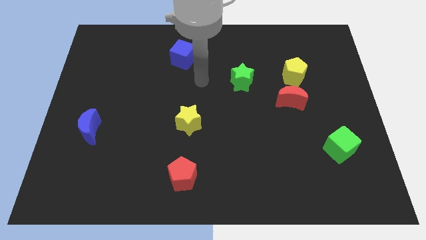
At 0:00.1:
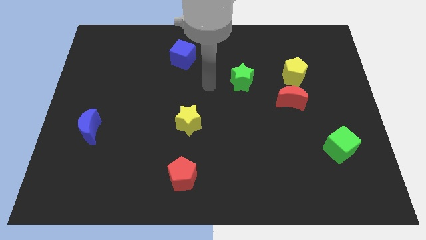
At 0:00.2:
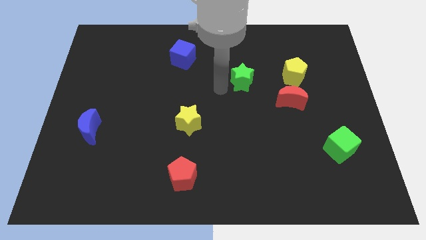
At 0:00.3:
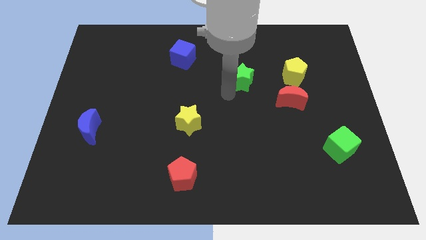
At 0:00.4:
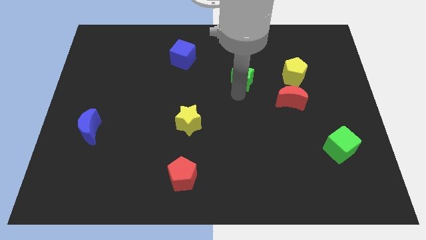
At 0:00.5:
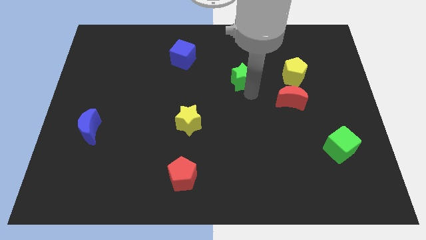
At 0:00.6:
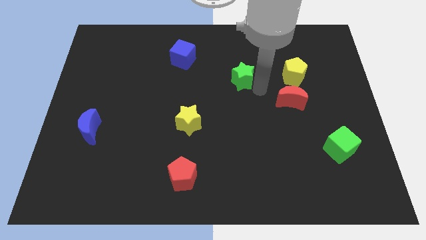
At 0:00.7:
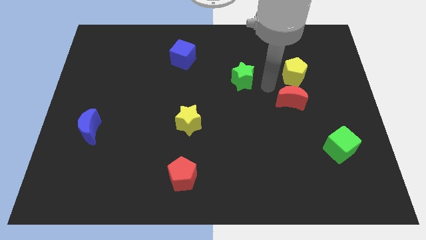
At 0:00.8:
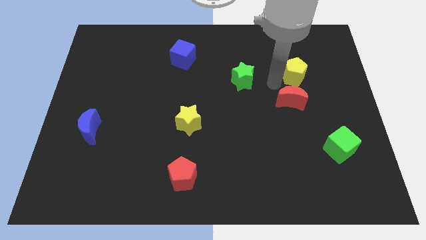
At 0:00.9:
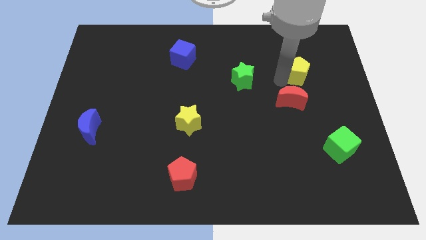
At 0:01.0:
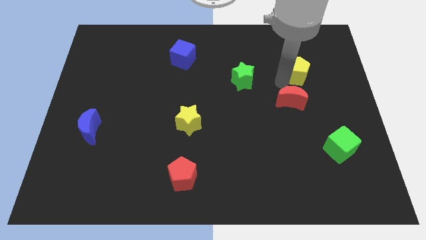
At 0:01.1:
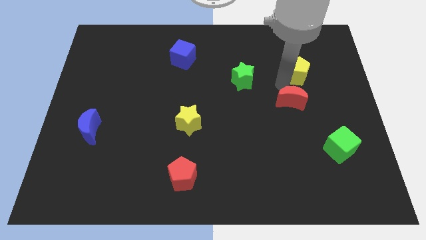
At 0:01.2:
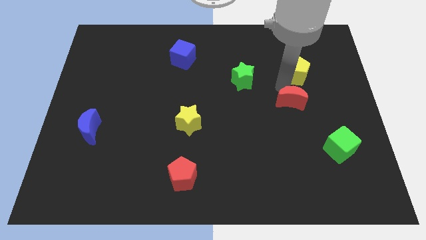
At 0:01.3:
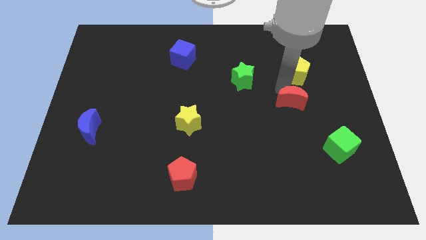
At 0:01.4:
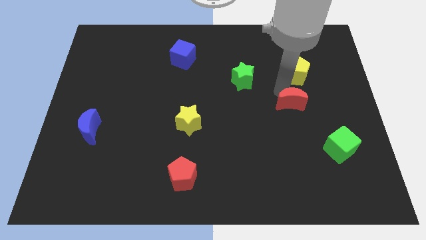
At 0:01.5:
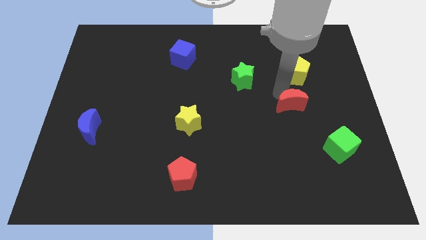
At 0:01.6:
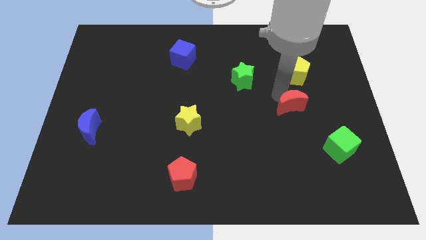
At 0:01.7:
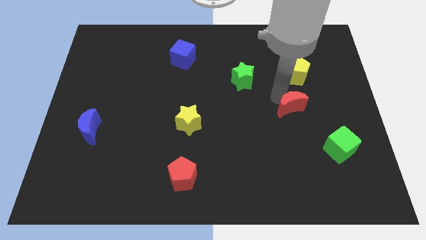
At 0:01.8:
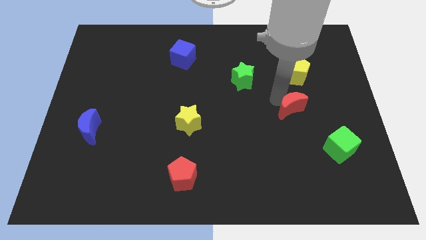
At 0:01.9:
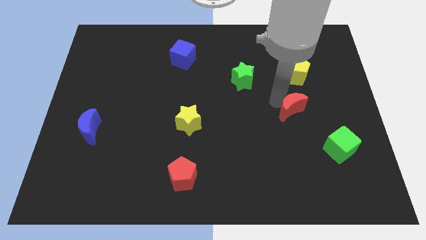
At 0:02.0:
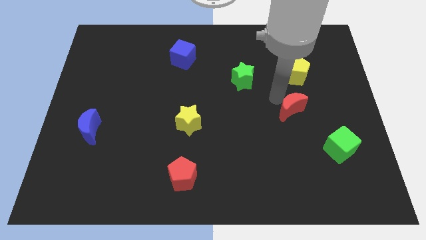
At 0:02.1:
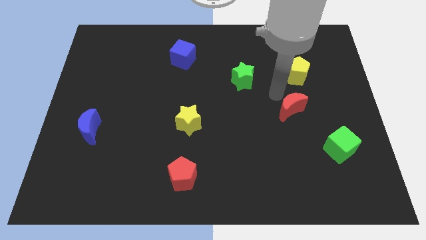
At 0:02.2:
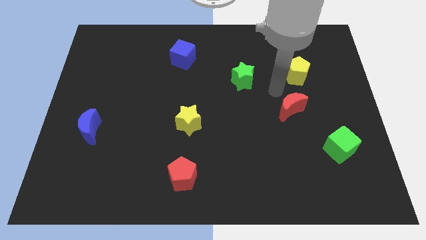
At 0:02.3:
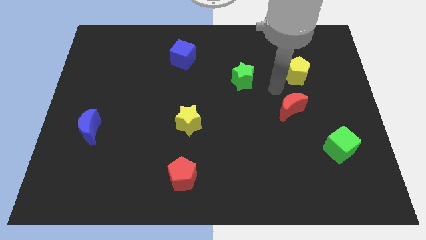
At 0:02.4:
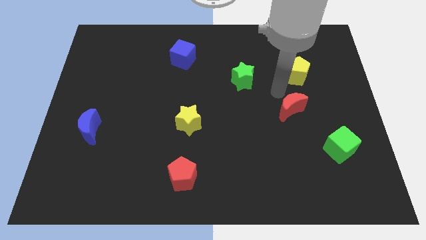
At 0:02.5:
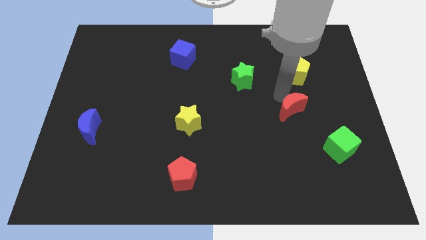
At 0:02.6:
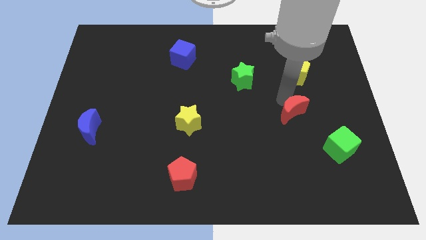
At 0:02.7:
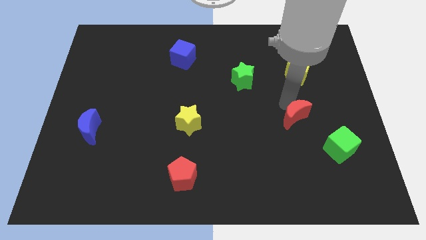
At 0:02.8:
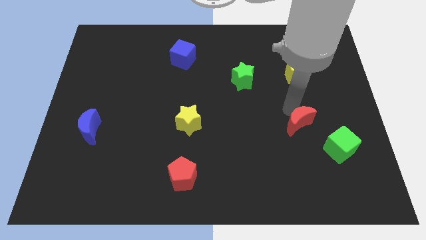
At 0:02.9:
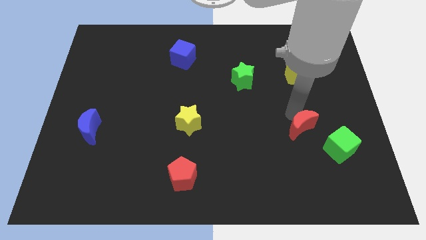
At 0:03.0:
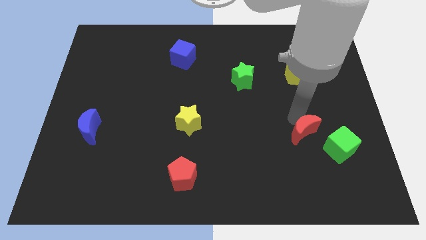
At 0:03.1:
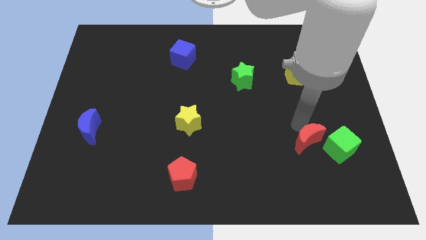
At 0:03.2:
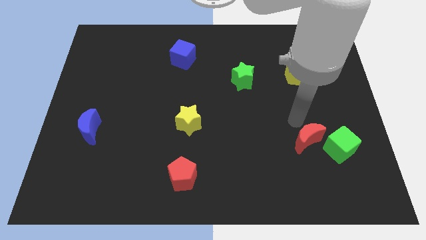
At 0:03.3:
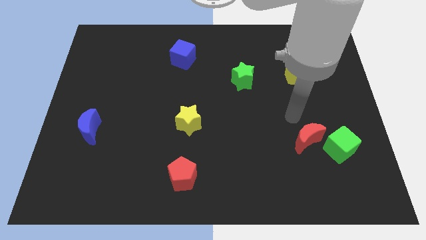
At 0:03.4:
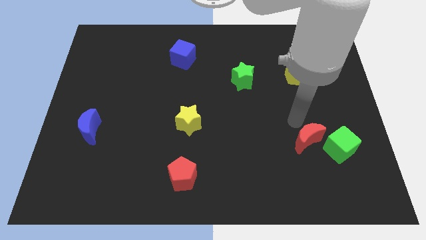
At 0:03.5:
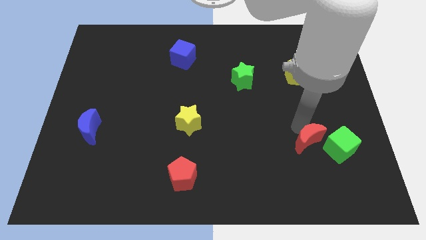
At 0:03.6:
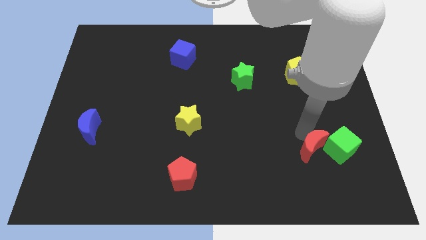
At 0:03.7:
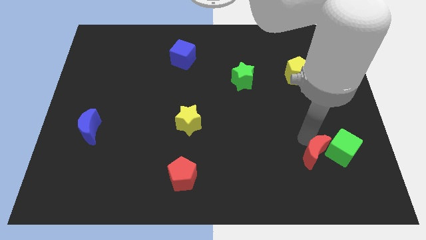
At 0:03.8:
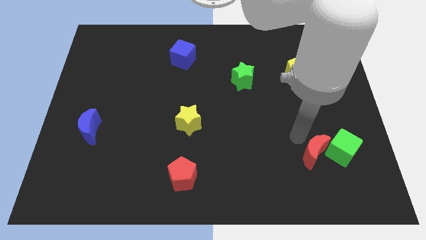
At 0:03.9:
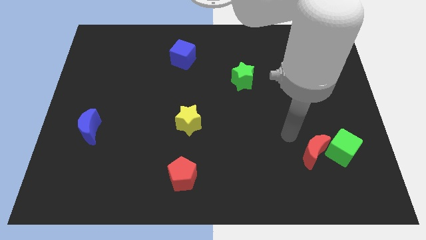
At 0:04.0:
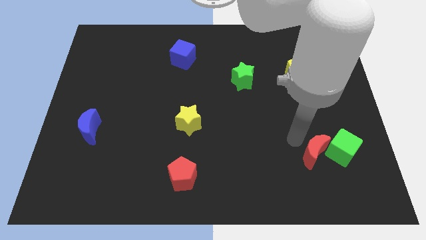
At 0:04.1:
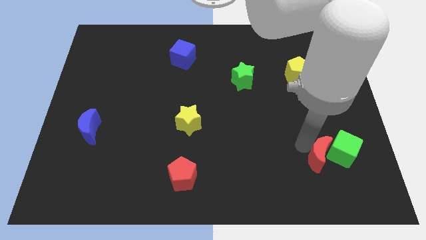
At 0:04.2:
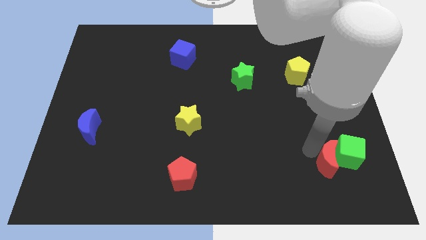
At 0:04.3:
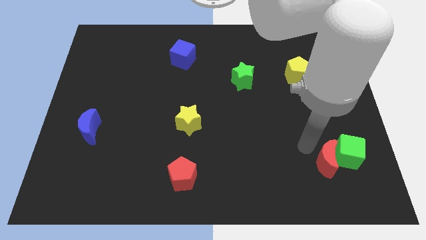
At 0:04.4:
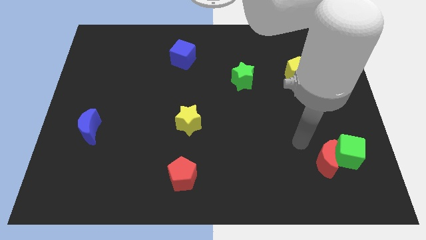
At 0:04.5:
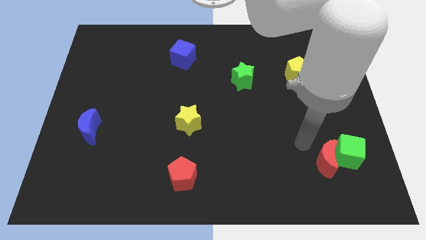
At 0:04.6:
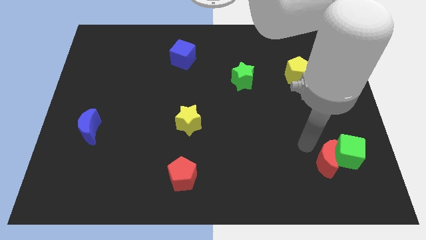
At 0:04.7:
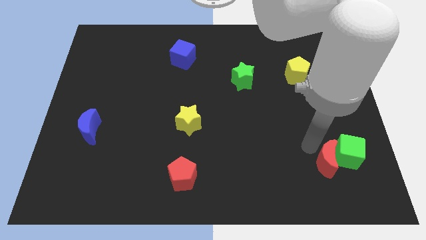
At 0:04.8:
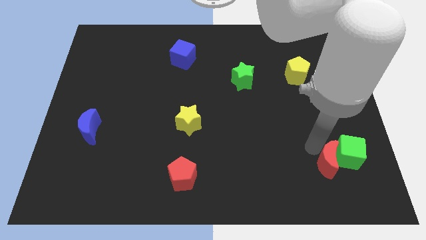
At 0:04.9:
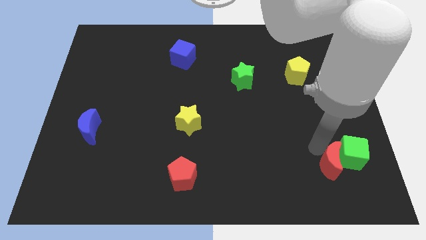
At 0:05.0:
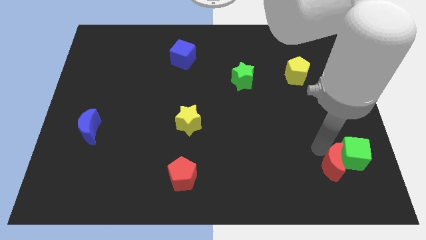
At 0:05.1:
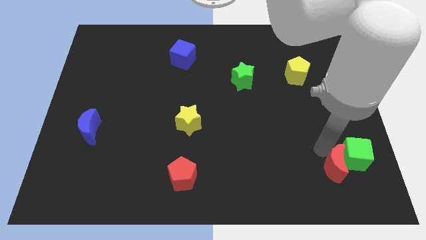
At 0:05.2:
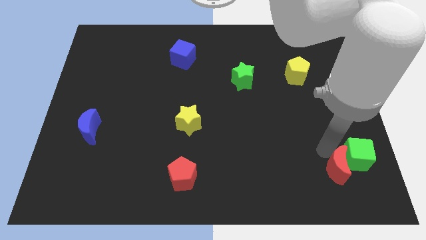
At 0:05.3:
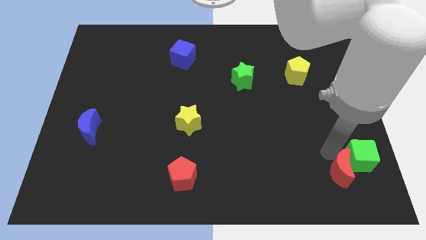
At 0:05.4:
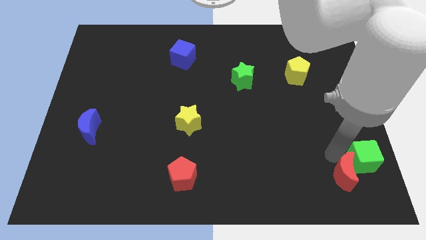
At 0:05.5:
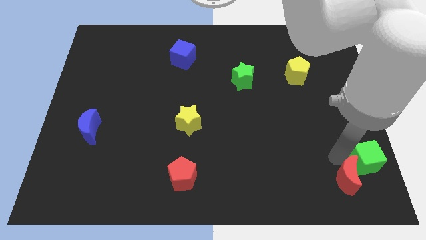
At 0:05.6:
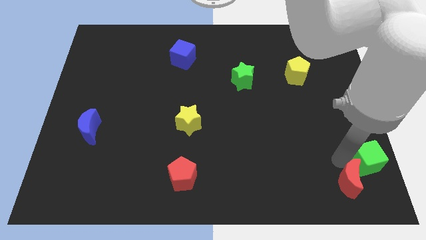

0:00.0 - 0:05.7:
move the red moon to the bottom right
